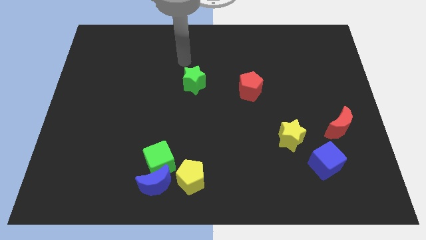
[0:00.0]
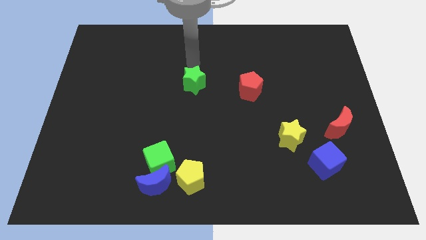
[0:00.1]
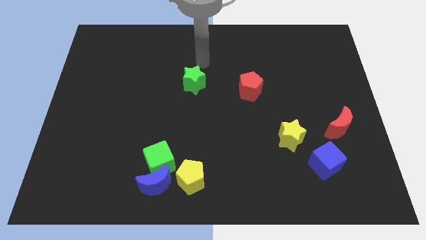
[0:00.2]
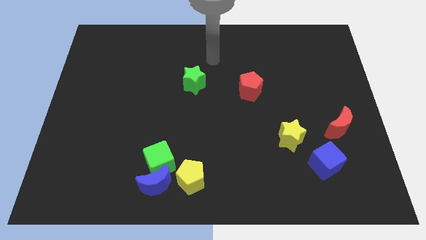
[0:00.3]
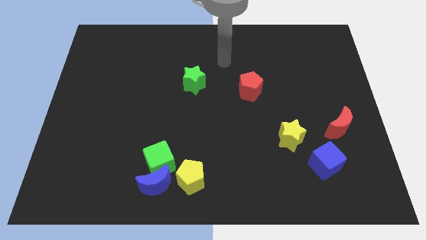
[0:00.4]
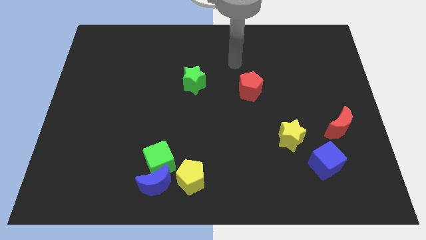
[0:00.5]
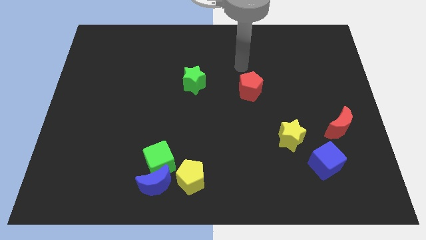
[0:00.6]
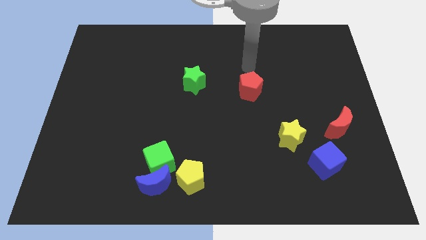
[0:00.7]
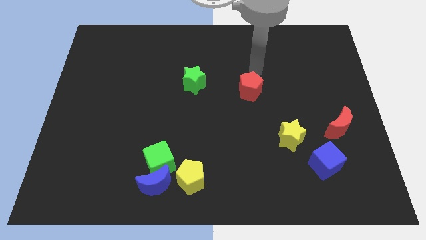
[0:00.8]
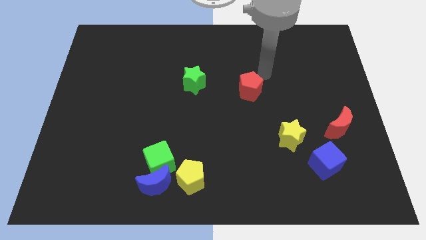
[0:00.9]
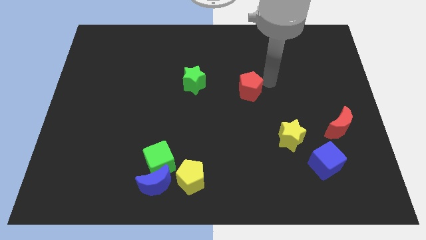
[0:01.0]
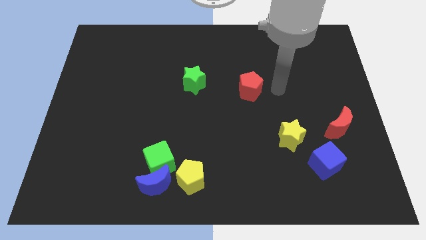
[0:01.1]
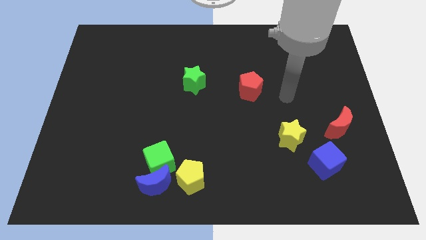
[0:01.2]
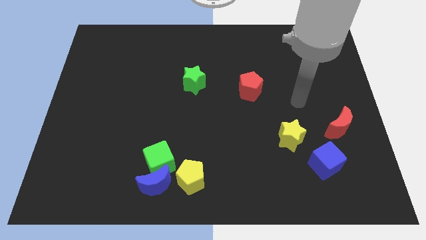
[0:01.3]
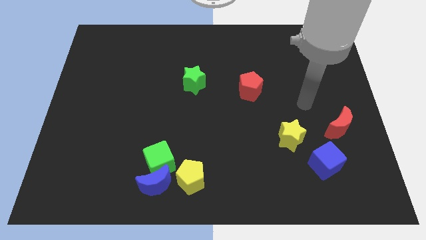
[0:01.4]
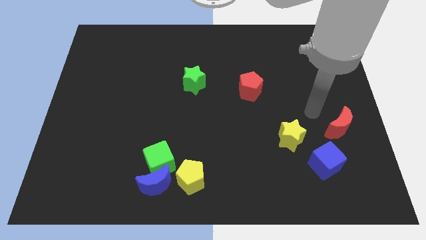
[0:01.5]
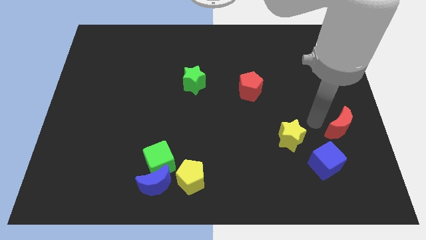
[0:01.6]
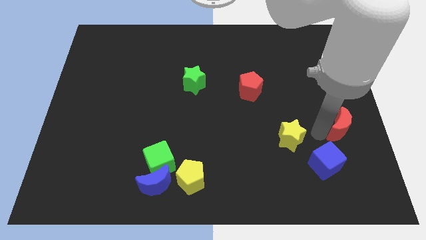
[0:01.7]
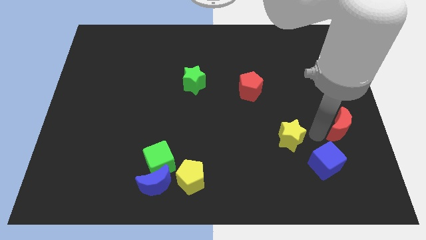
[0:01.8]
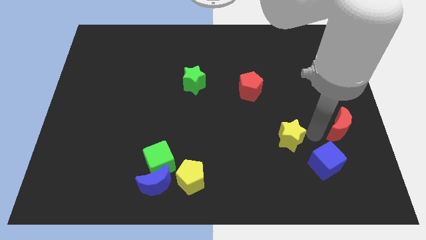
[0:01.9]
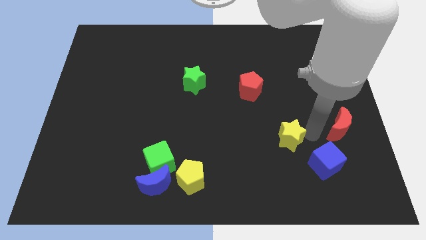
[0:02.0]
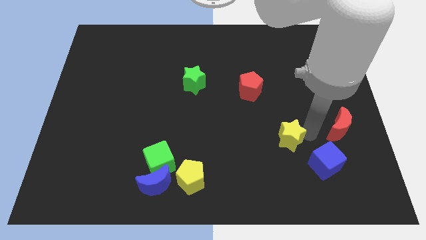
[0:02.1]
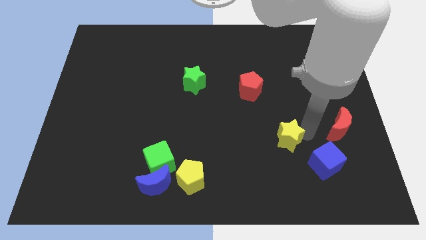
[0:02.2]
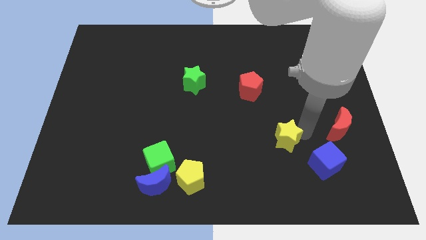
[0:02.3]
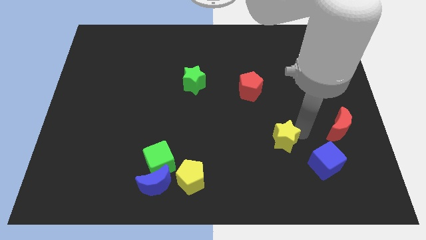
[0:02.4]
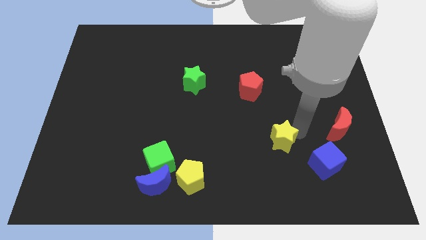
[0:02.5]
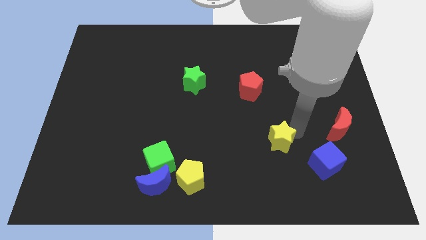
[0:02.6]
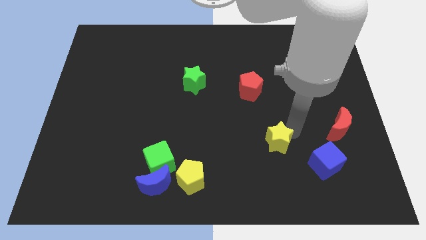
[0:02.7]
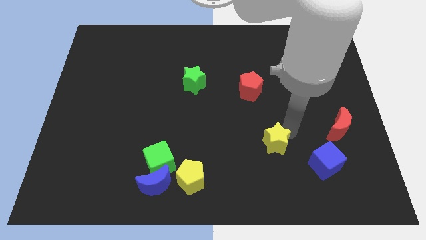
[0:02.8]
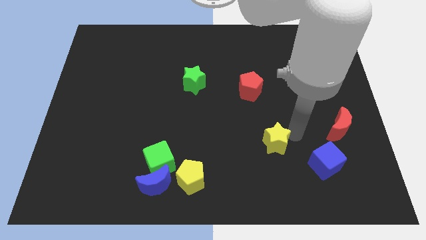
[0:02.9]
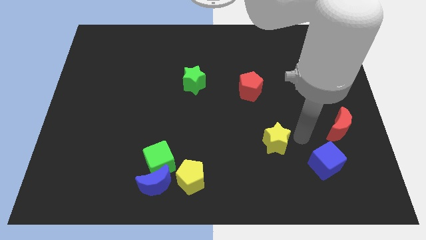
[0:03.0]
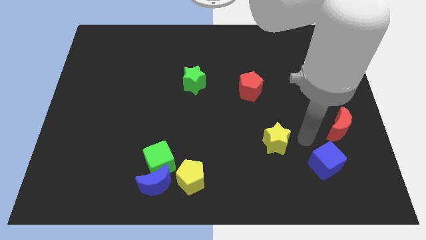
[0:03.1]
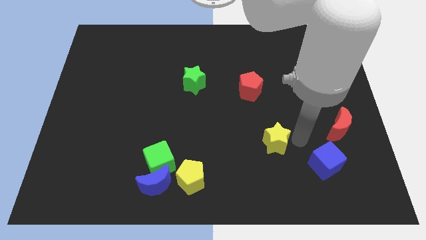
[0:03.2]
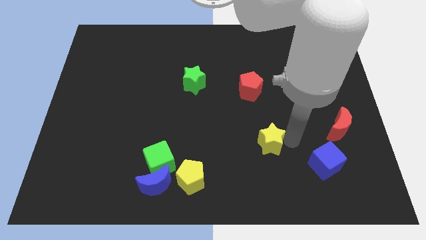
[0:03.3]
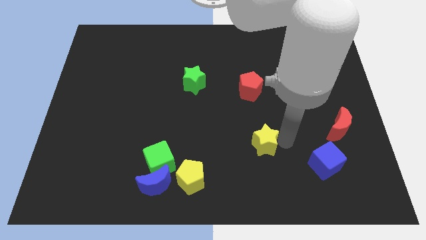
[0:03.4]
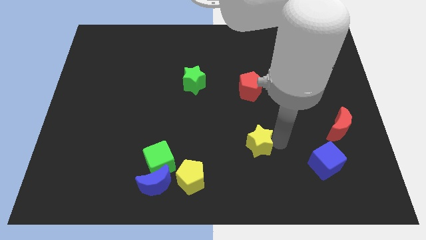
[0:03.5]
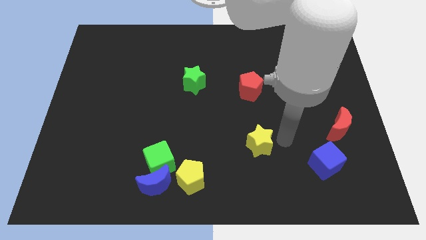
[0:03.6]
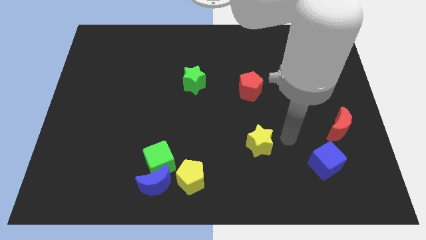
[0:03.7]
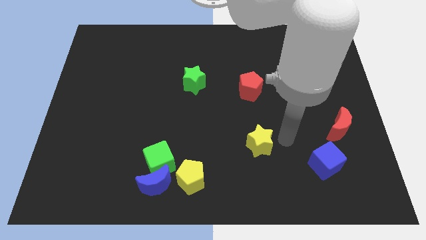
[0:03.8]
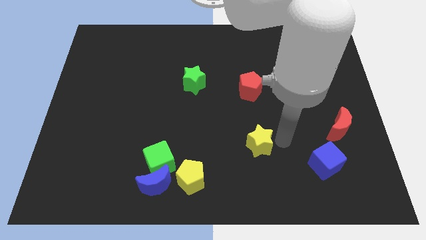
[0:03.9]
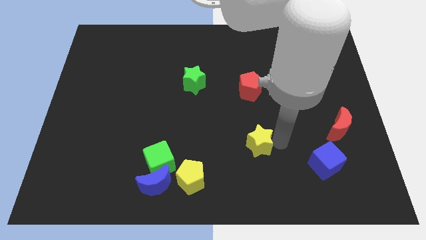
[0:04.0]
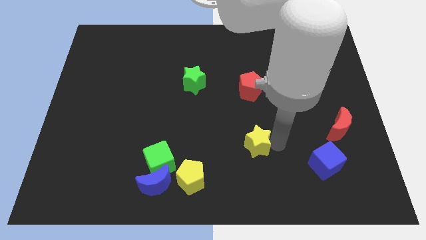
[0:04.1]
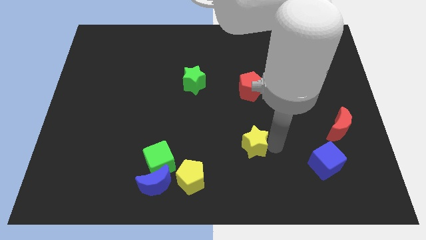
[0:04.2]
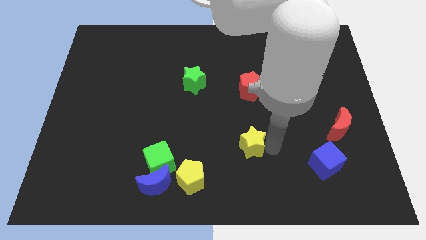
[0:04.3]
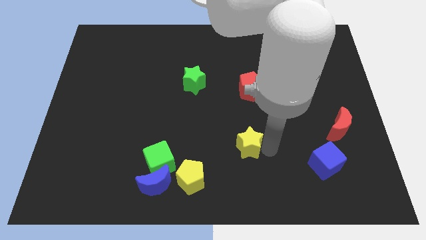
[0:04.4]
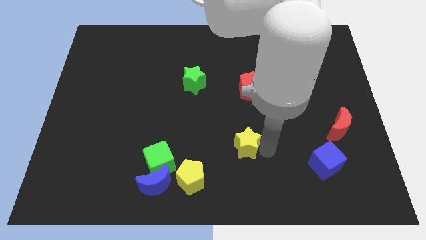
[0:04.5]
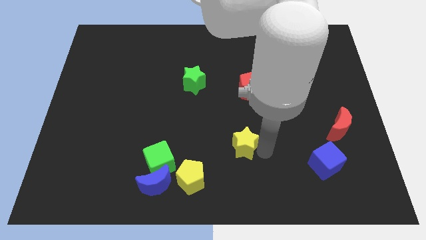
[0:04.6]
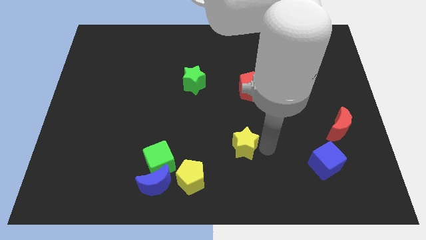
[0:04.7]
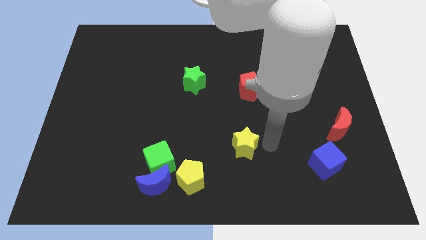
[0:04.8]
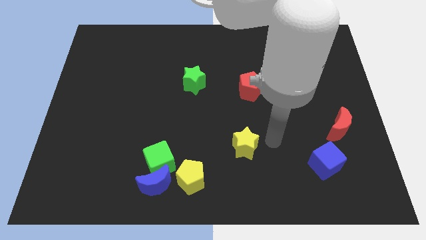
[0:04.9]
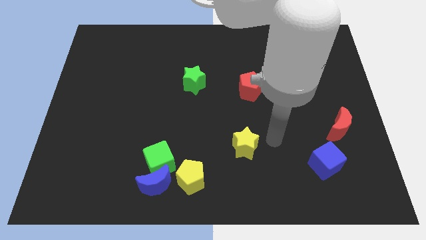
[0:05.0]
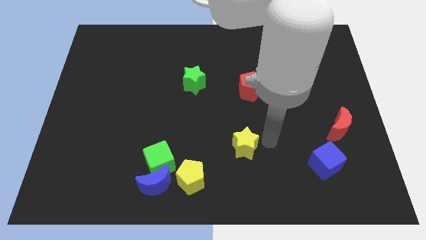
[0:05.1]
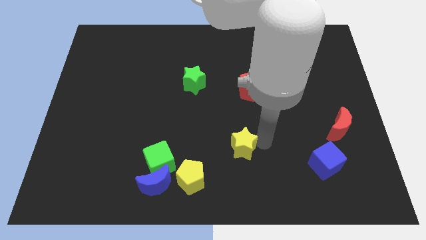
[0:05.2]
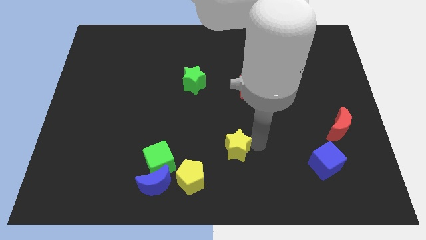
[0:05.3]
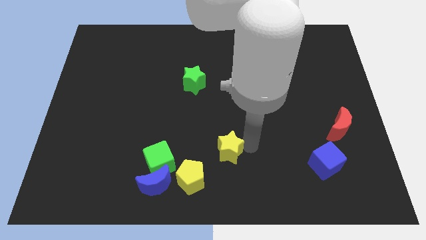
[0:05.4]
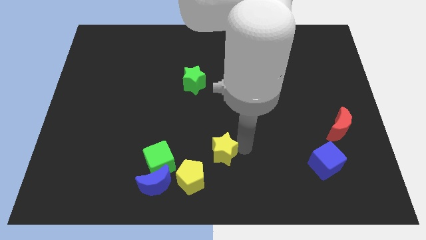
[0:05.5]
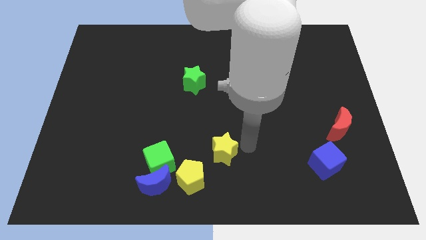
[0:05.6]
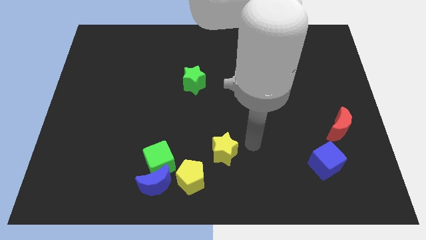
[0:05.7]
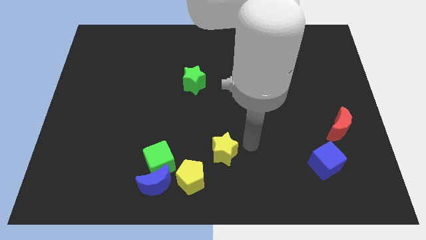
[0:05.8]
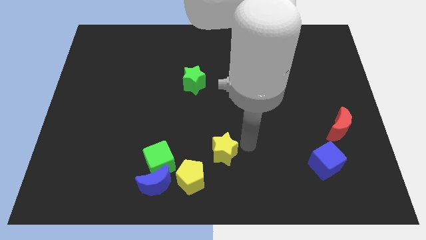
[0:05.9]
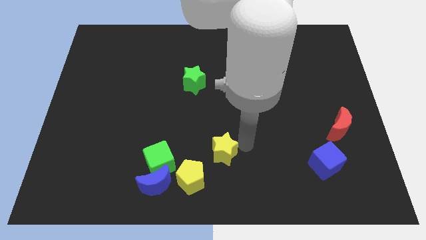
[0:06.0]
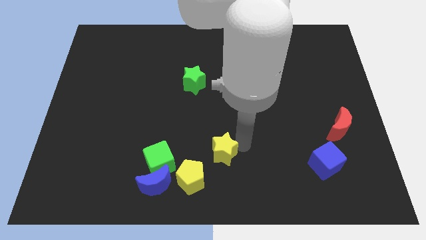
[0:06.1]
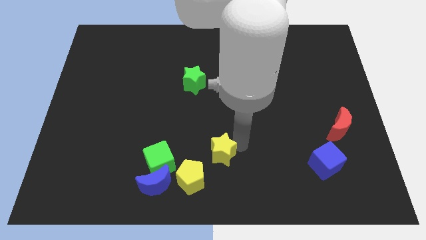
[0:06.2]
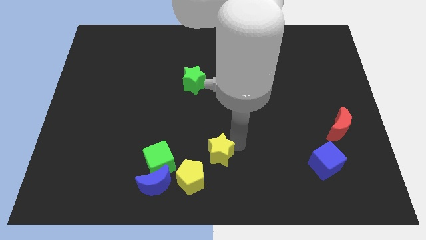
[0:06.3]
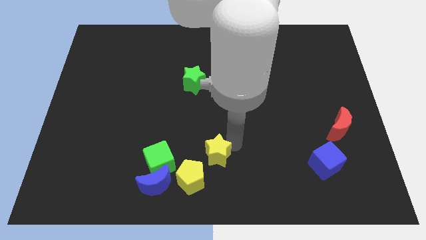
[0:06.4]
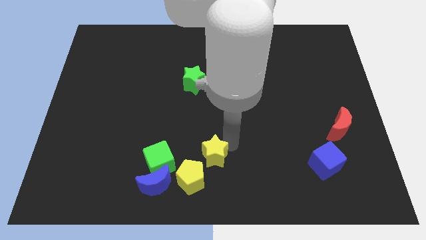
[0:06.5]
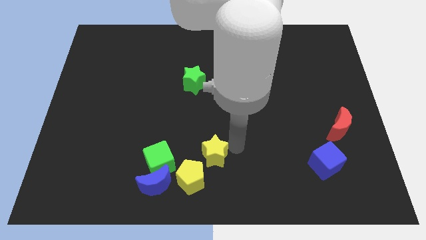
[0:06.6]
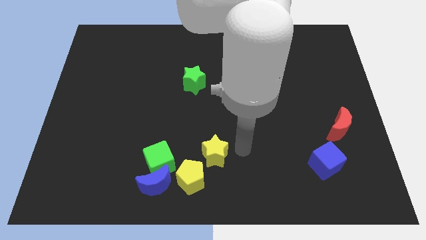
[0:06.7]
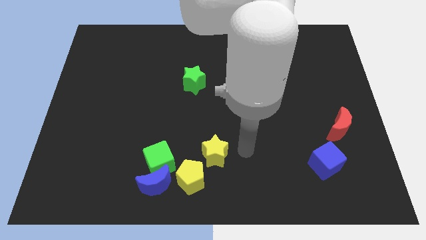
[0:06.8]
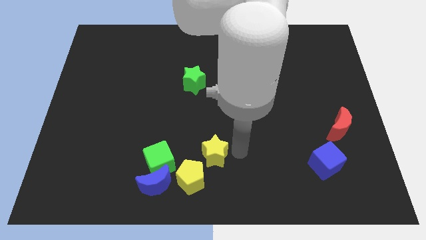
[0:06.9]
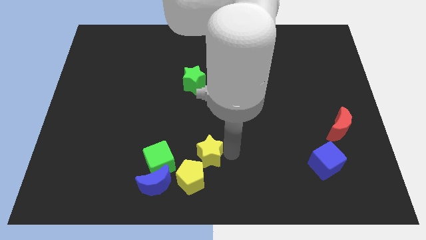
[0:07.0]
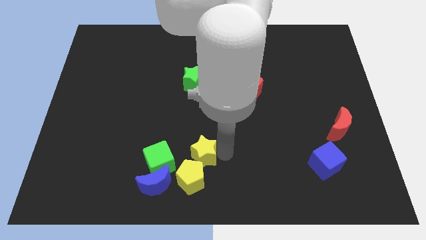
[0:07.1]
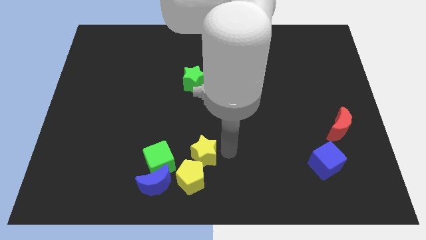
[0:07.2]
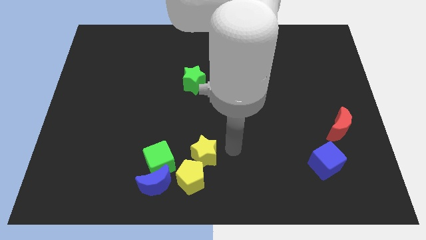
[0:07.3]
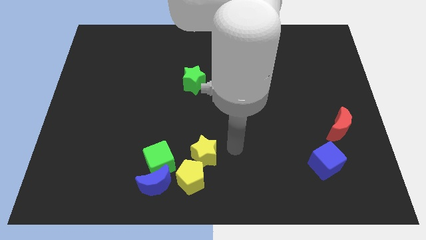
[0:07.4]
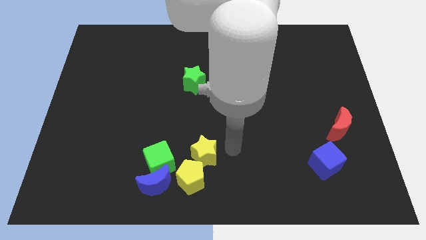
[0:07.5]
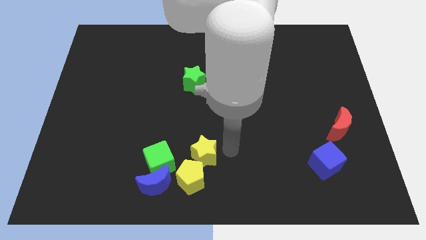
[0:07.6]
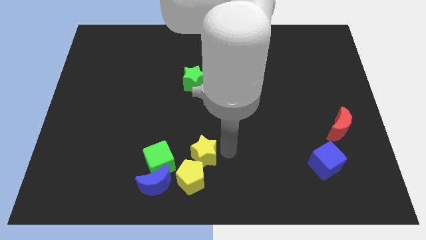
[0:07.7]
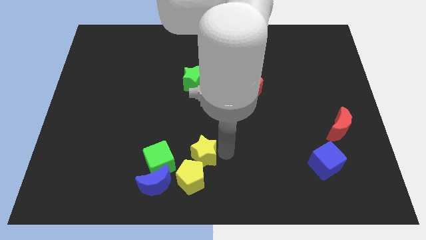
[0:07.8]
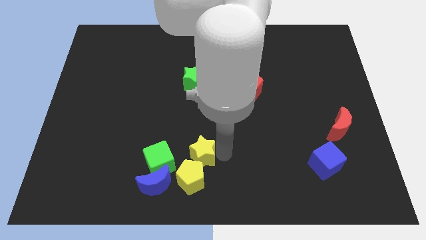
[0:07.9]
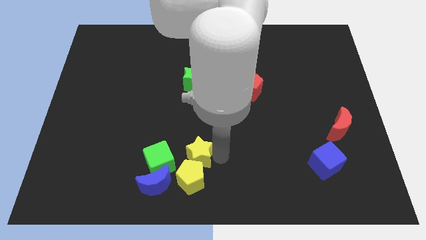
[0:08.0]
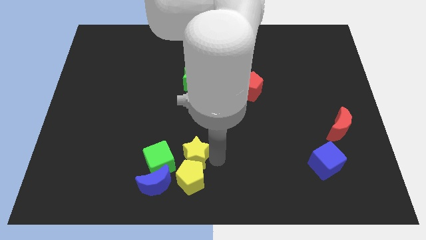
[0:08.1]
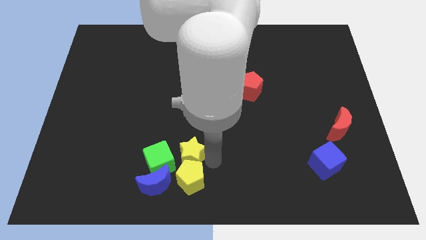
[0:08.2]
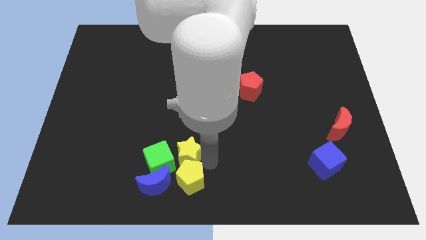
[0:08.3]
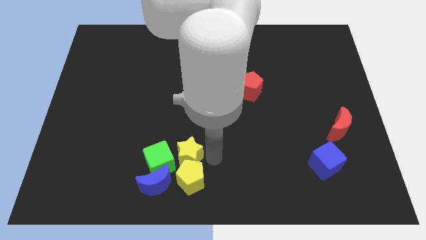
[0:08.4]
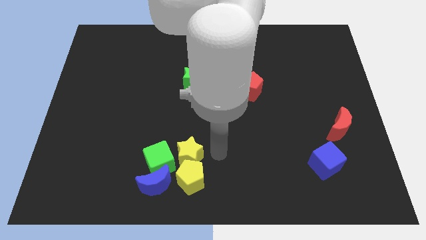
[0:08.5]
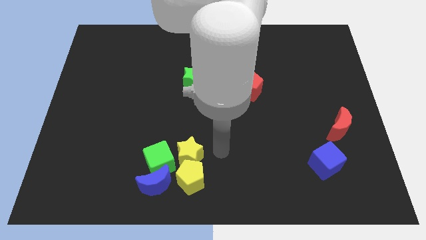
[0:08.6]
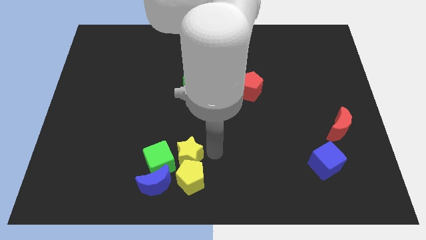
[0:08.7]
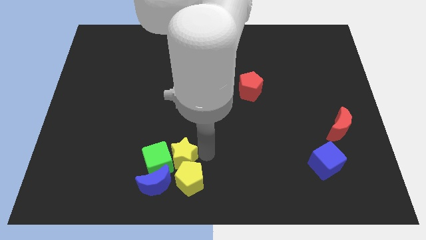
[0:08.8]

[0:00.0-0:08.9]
push the yellow star to the green cube
